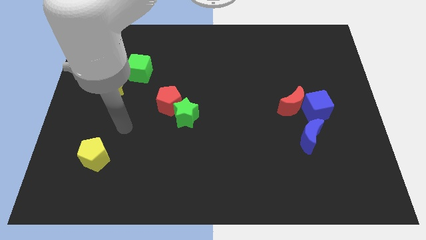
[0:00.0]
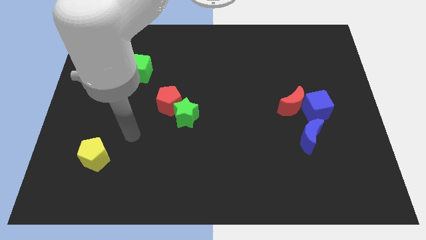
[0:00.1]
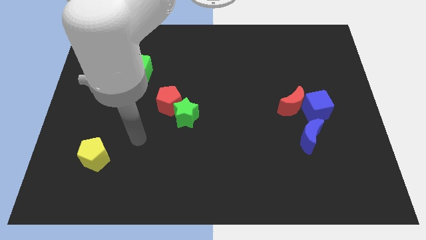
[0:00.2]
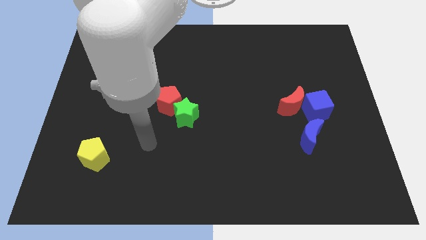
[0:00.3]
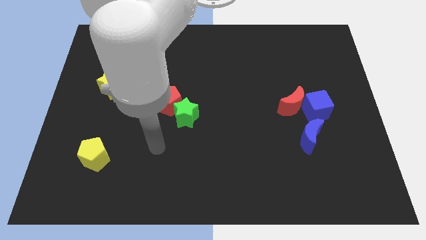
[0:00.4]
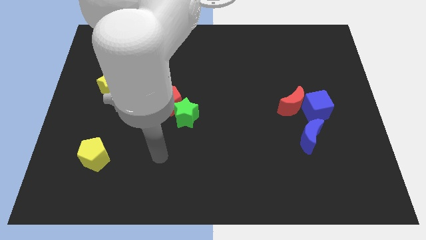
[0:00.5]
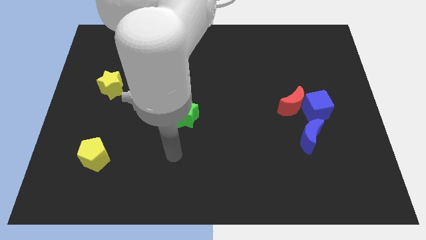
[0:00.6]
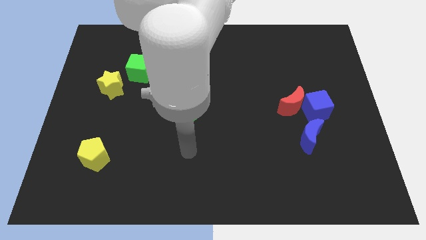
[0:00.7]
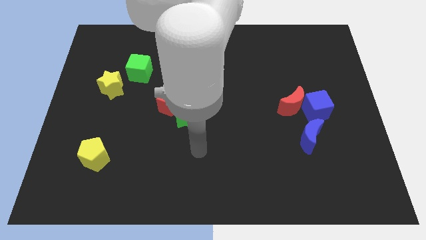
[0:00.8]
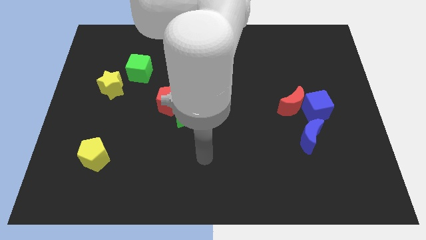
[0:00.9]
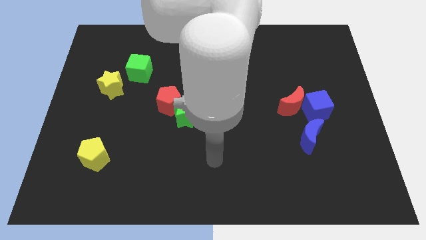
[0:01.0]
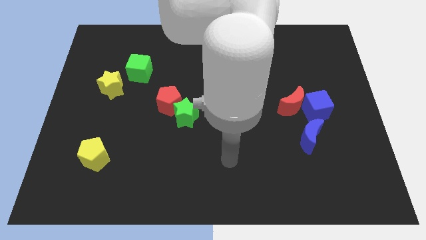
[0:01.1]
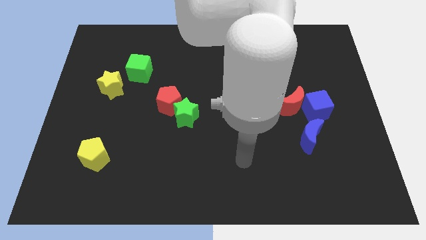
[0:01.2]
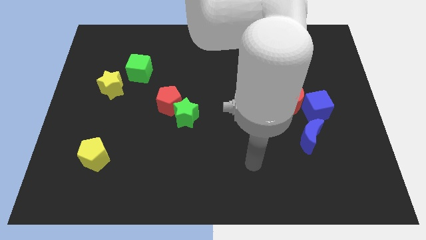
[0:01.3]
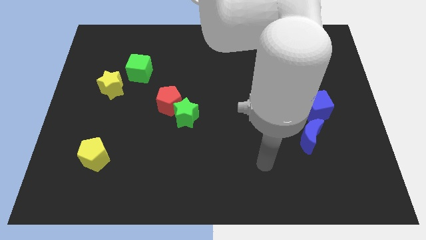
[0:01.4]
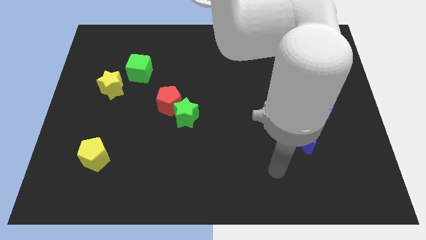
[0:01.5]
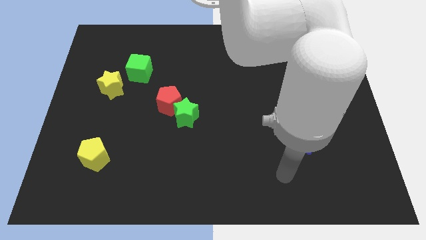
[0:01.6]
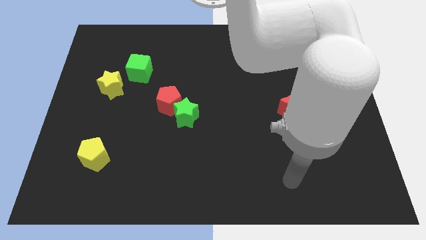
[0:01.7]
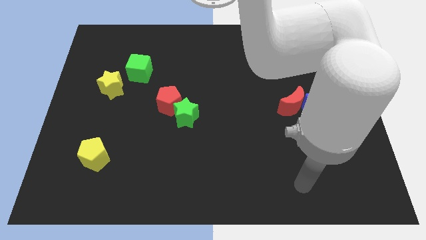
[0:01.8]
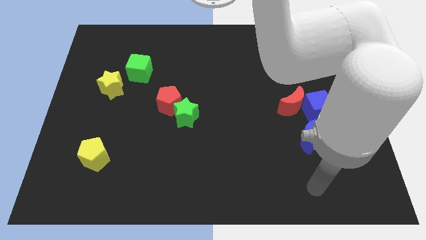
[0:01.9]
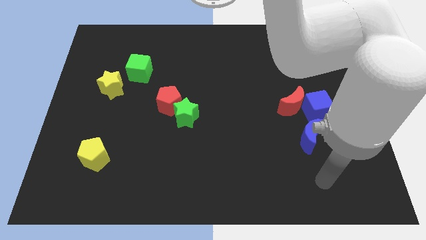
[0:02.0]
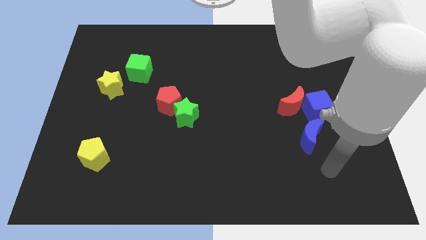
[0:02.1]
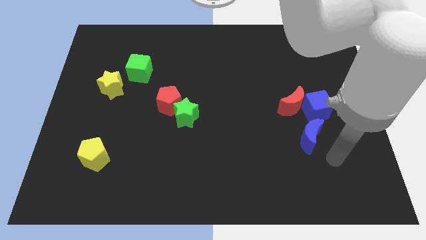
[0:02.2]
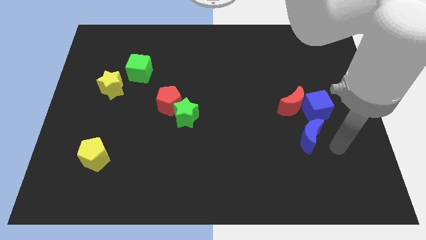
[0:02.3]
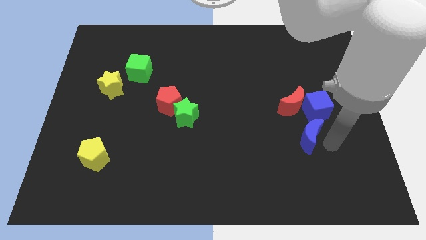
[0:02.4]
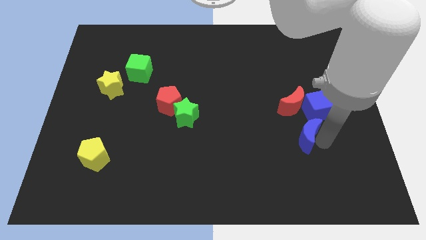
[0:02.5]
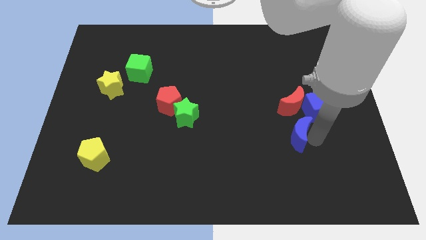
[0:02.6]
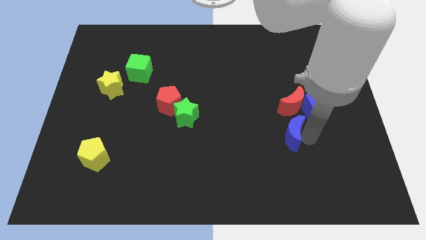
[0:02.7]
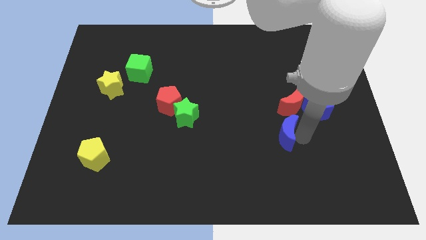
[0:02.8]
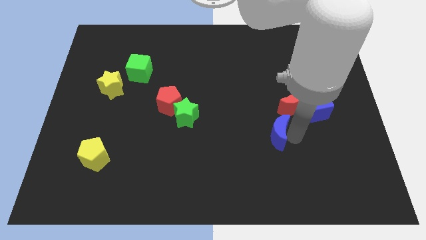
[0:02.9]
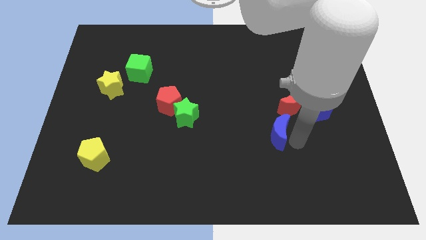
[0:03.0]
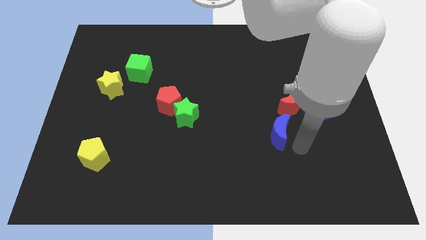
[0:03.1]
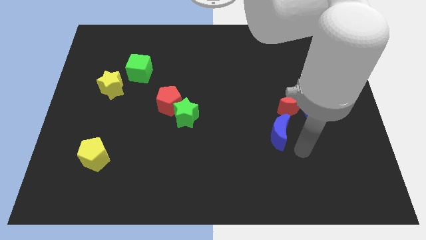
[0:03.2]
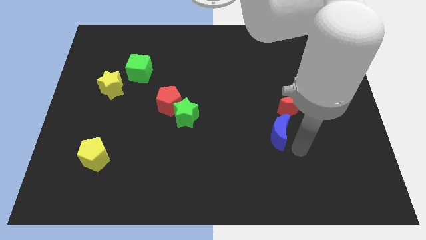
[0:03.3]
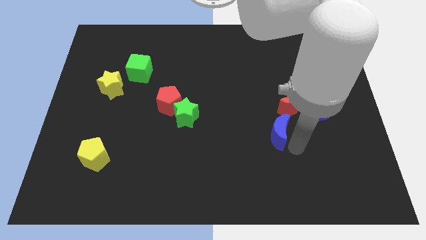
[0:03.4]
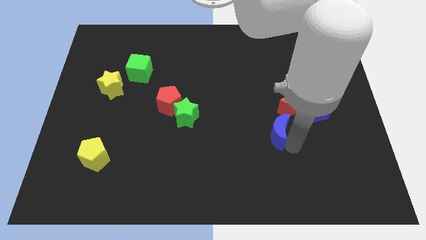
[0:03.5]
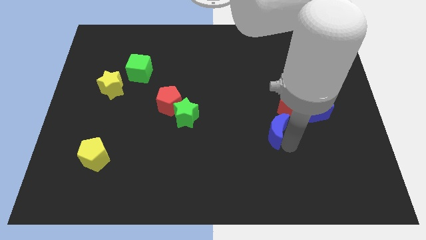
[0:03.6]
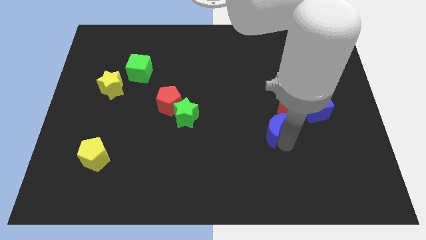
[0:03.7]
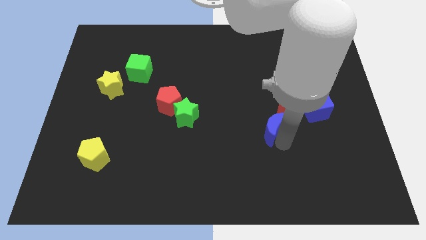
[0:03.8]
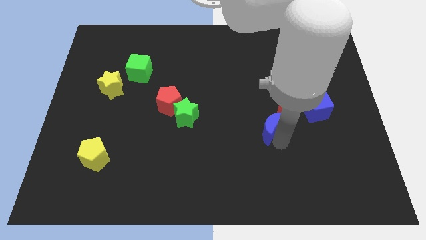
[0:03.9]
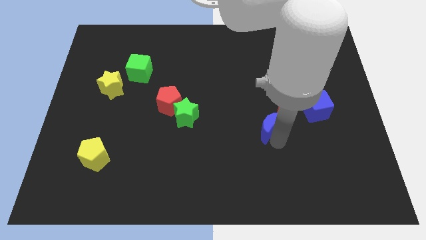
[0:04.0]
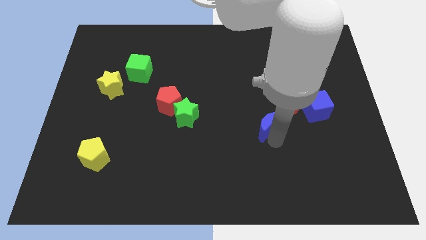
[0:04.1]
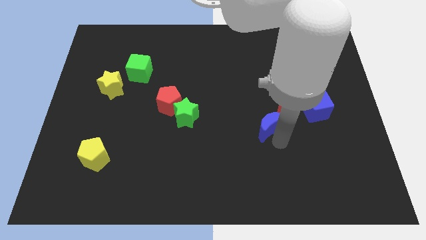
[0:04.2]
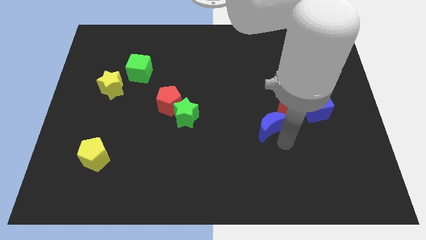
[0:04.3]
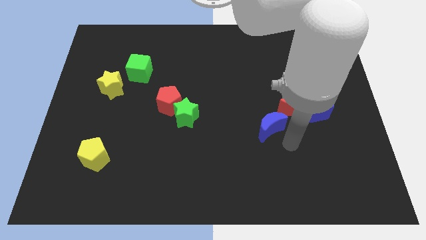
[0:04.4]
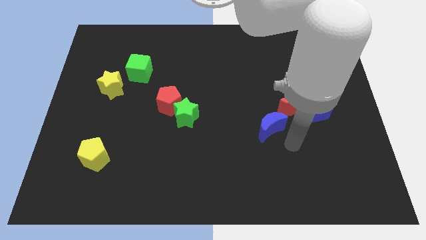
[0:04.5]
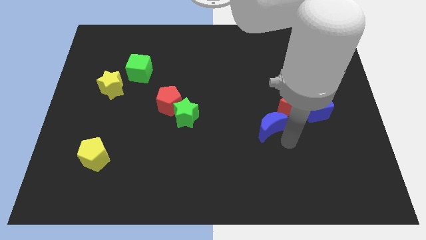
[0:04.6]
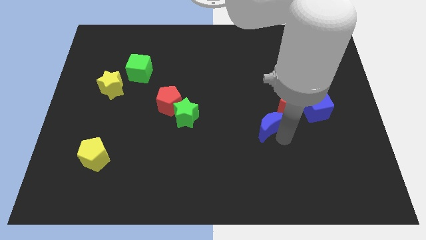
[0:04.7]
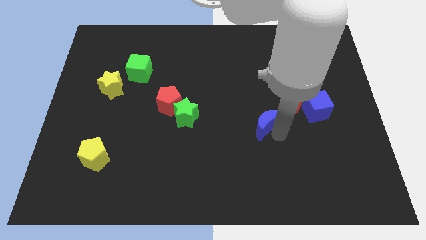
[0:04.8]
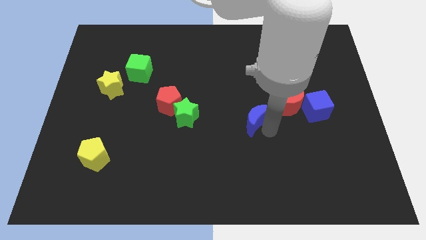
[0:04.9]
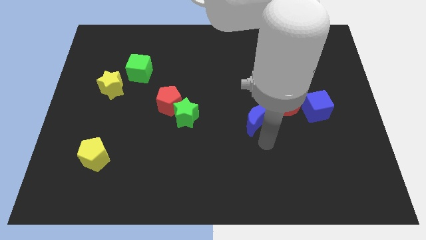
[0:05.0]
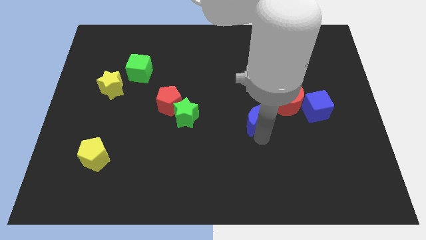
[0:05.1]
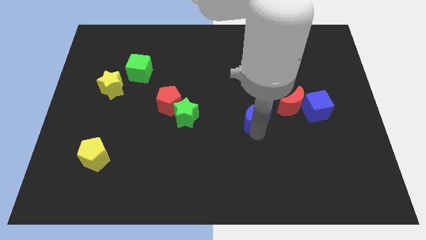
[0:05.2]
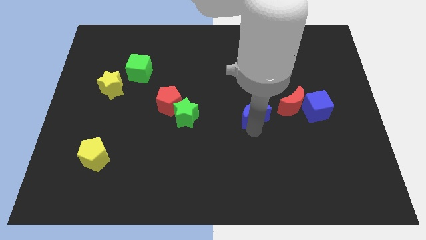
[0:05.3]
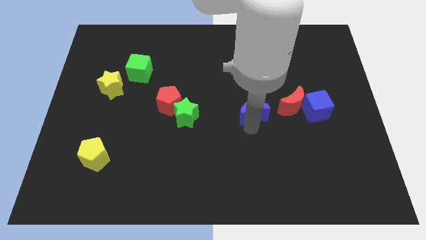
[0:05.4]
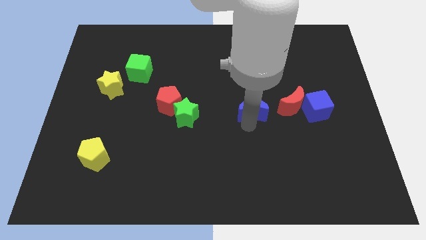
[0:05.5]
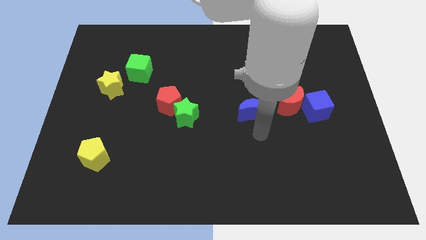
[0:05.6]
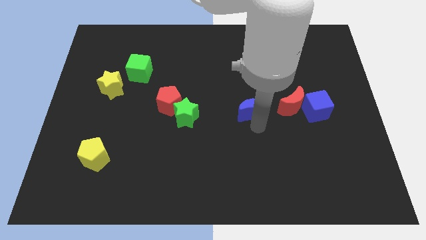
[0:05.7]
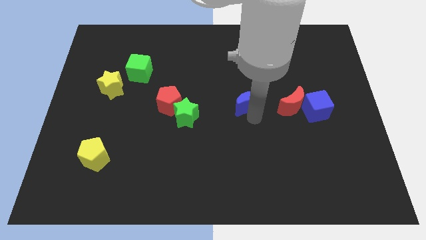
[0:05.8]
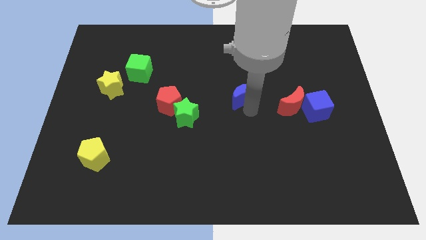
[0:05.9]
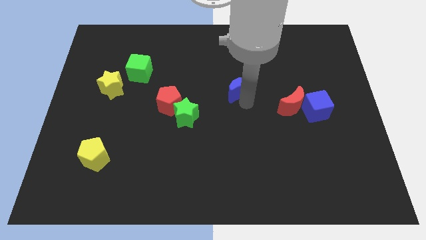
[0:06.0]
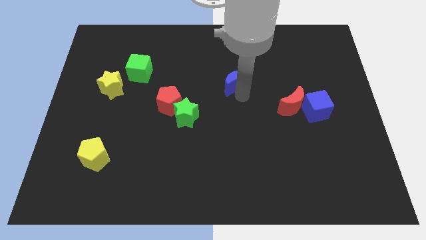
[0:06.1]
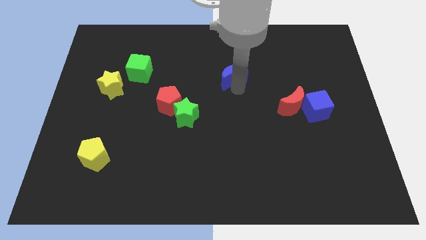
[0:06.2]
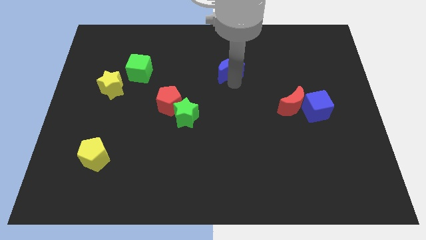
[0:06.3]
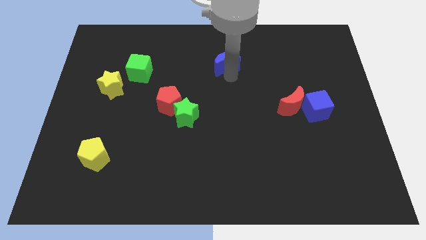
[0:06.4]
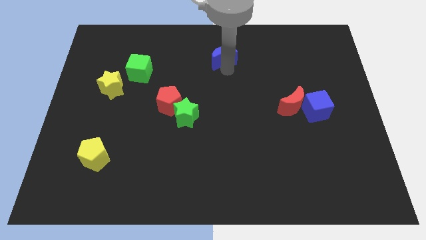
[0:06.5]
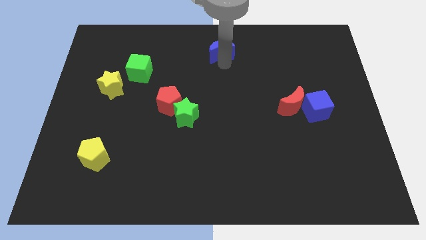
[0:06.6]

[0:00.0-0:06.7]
push the blue moon to the top

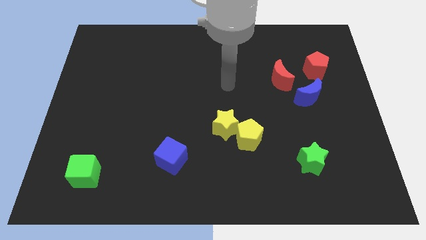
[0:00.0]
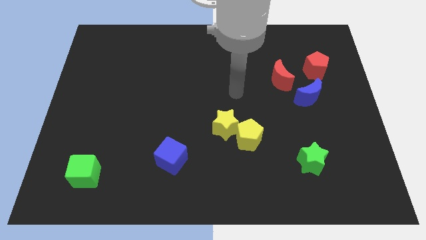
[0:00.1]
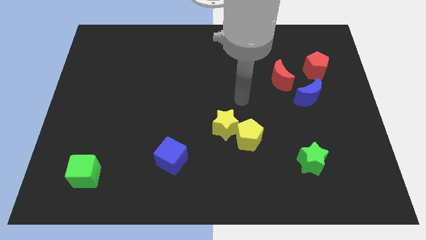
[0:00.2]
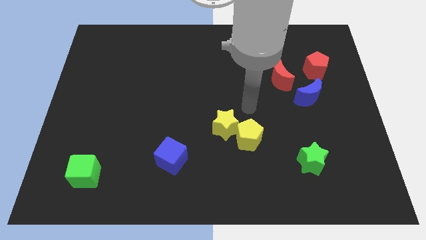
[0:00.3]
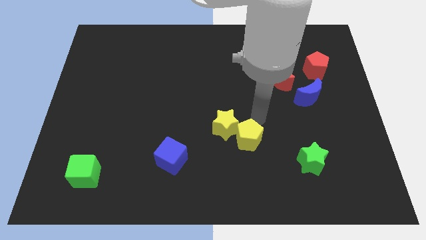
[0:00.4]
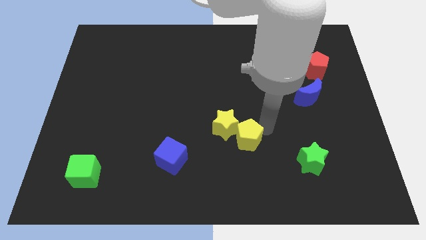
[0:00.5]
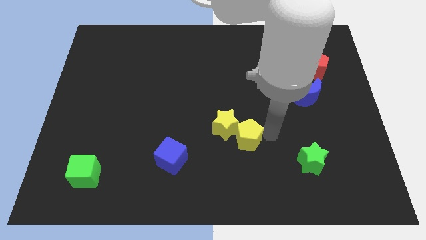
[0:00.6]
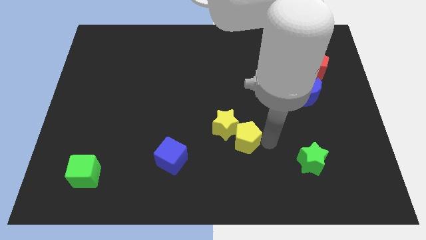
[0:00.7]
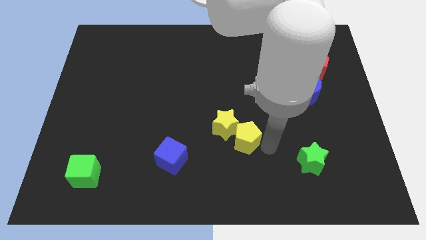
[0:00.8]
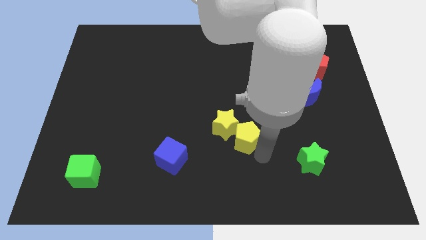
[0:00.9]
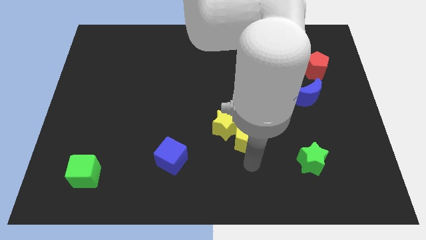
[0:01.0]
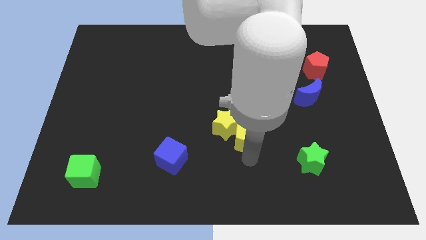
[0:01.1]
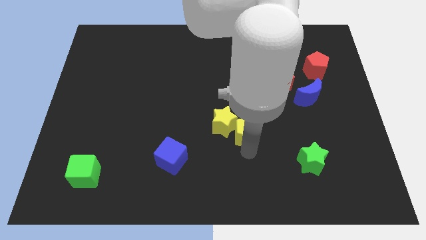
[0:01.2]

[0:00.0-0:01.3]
move the yellow pentagon to the middle
